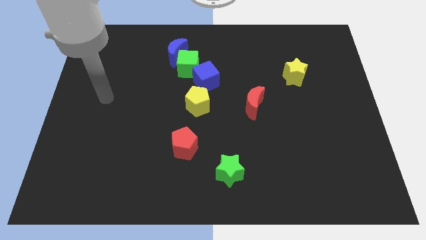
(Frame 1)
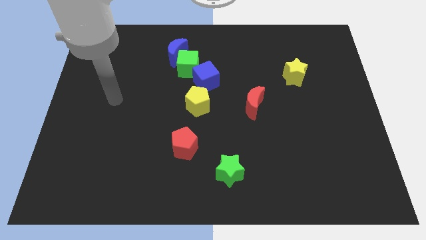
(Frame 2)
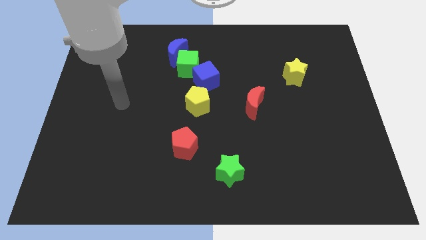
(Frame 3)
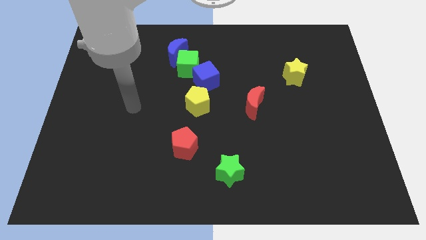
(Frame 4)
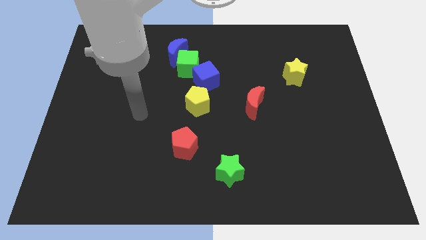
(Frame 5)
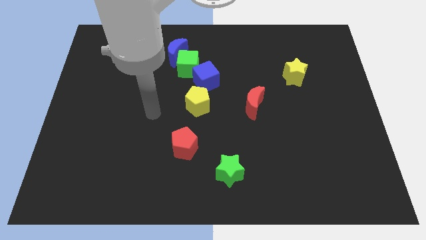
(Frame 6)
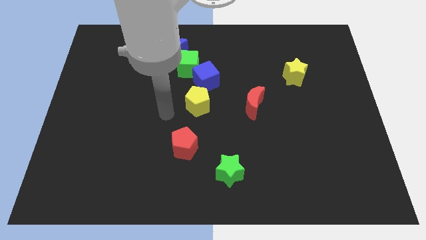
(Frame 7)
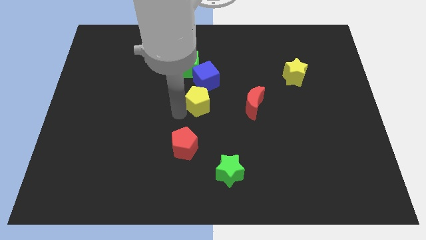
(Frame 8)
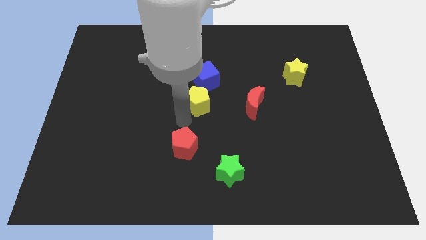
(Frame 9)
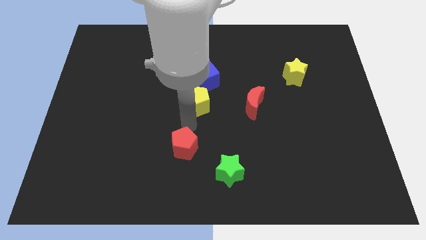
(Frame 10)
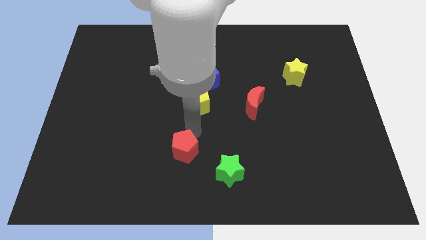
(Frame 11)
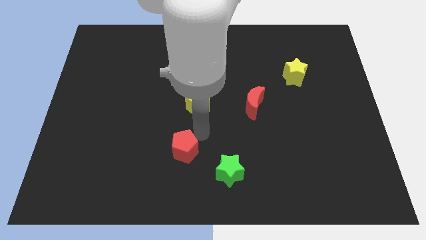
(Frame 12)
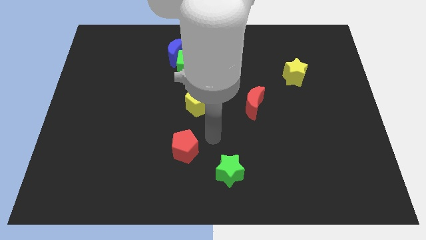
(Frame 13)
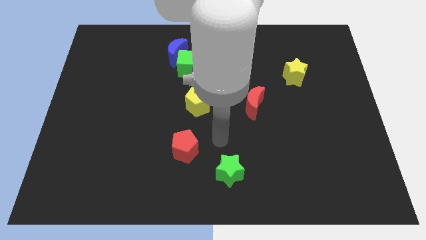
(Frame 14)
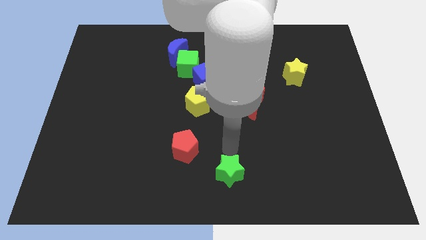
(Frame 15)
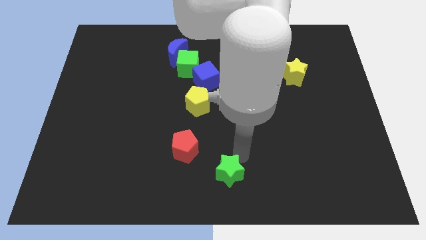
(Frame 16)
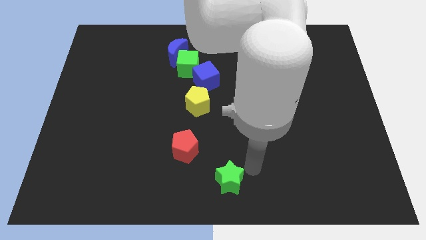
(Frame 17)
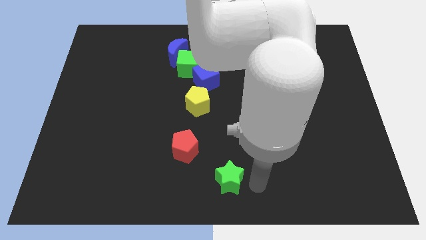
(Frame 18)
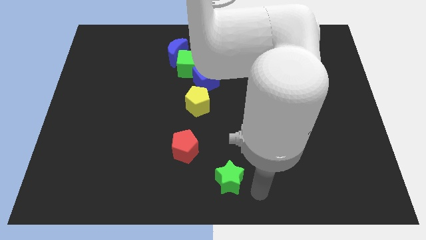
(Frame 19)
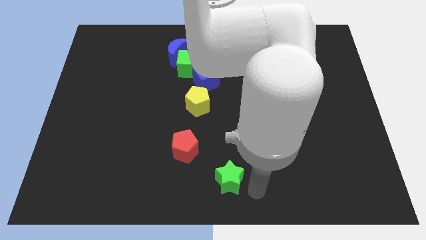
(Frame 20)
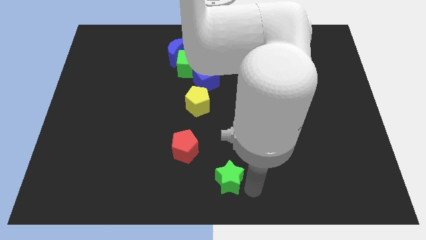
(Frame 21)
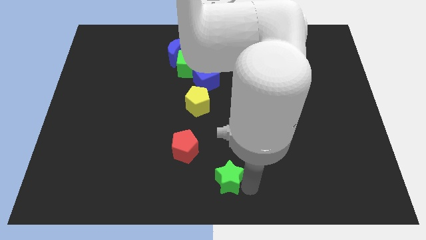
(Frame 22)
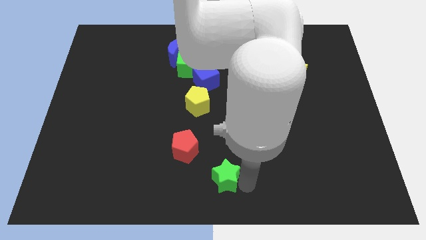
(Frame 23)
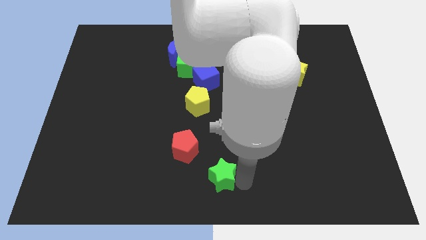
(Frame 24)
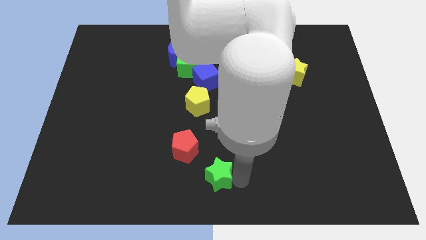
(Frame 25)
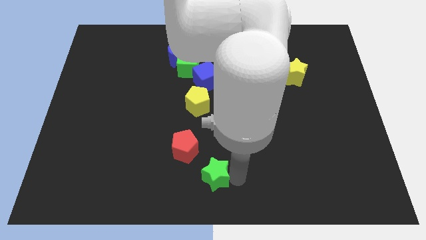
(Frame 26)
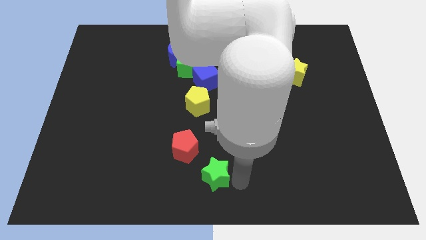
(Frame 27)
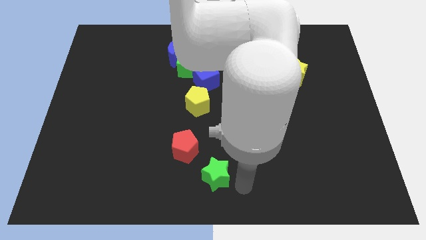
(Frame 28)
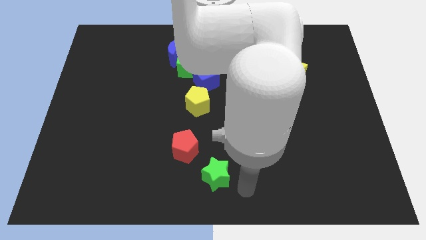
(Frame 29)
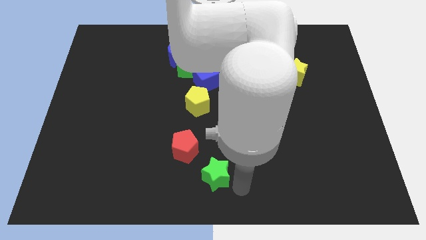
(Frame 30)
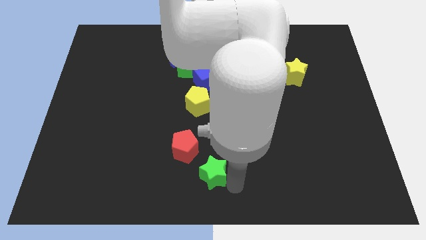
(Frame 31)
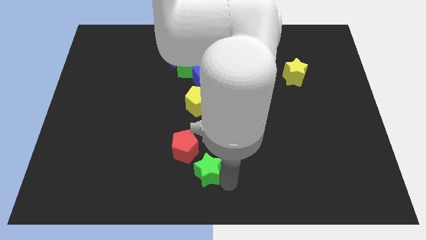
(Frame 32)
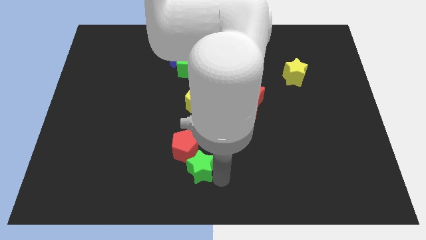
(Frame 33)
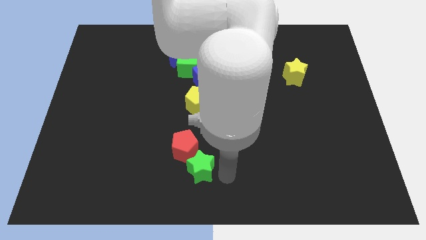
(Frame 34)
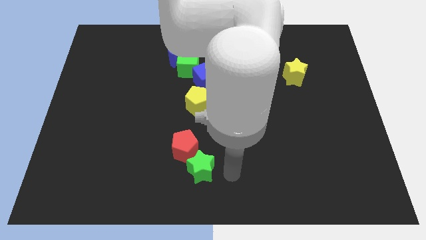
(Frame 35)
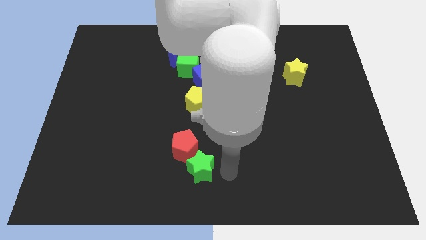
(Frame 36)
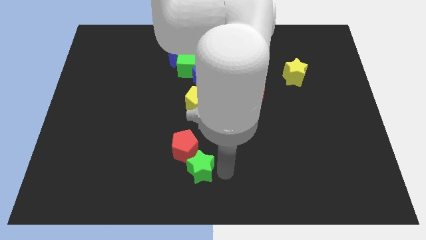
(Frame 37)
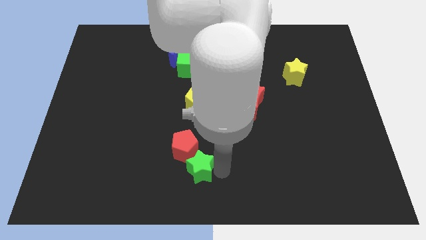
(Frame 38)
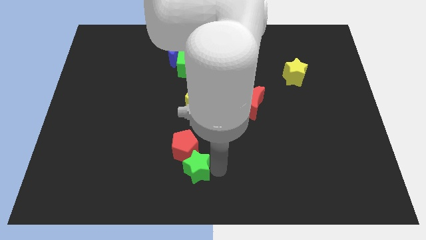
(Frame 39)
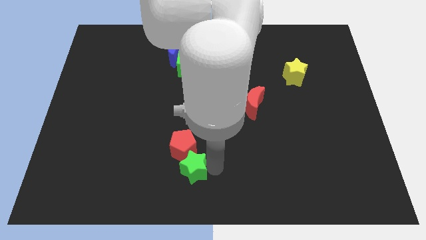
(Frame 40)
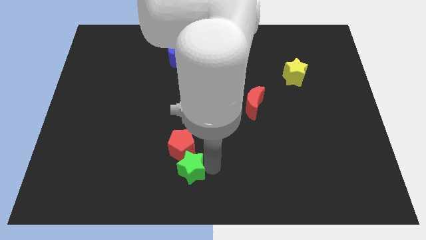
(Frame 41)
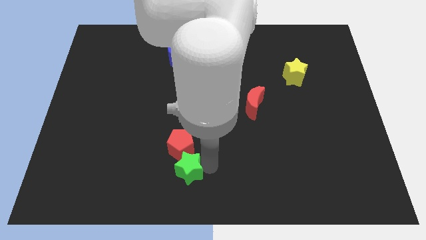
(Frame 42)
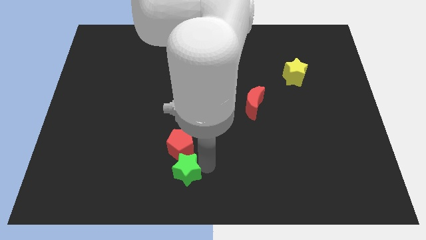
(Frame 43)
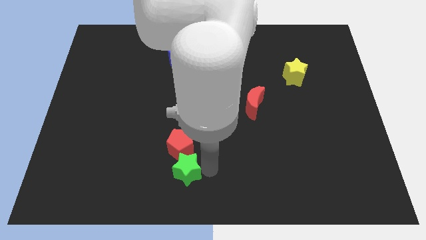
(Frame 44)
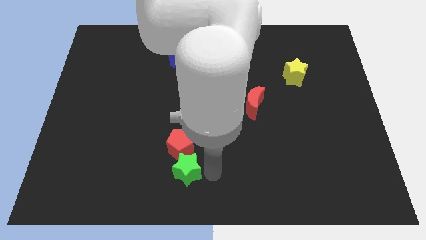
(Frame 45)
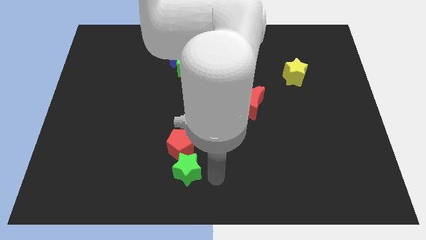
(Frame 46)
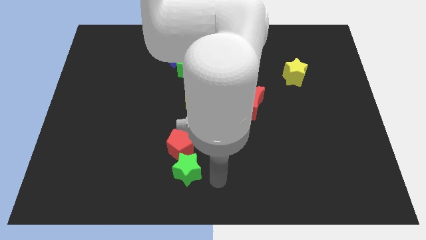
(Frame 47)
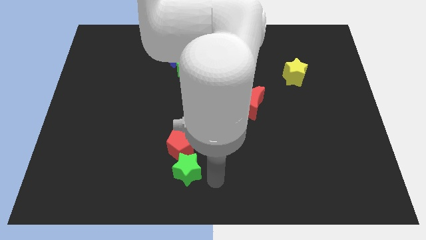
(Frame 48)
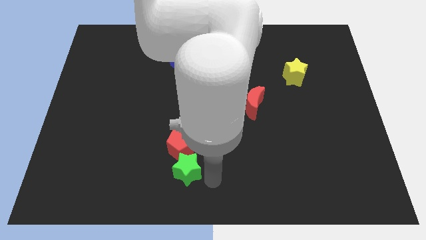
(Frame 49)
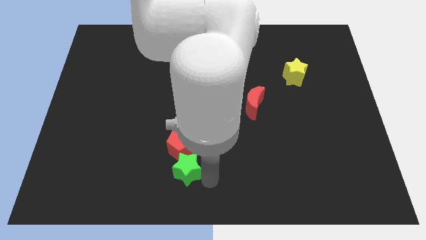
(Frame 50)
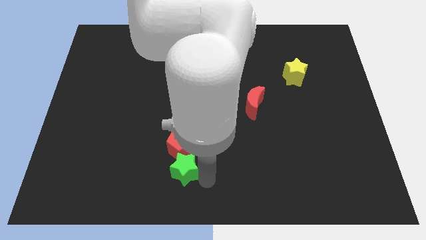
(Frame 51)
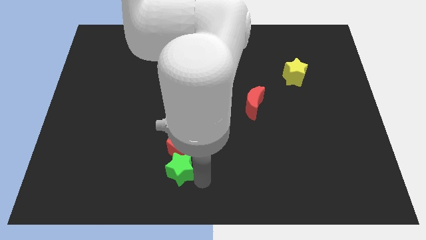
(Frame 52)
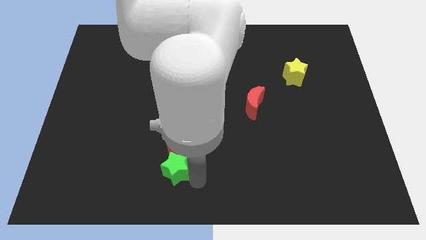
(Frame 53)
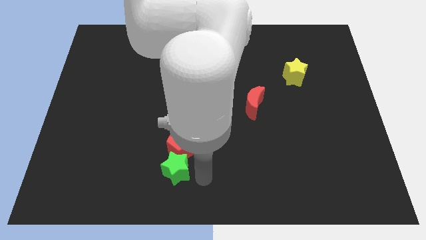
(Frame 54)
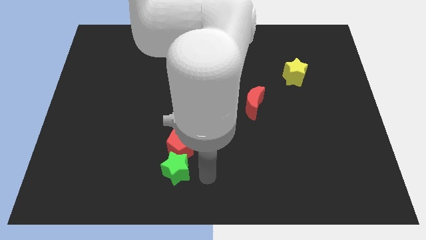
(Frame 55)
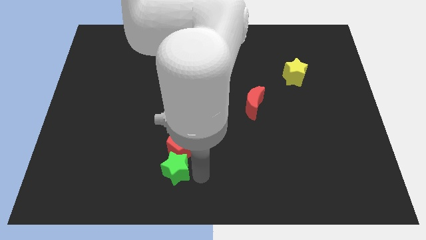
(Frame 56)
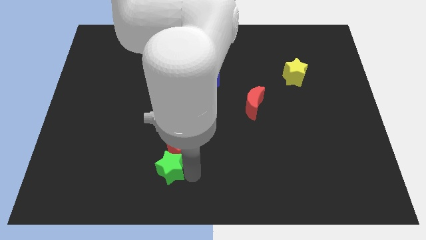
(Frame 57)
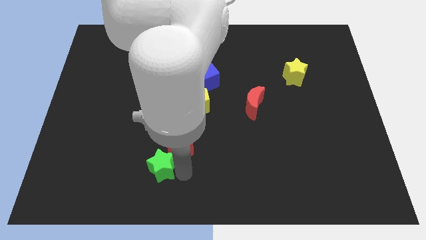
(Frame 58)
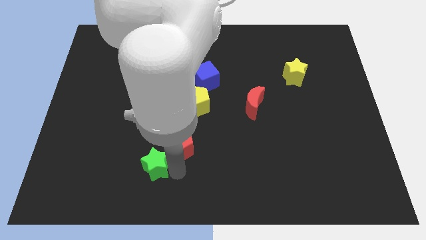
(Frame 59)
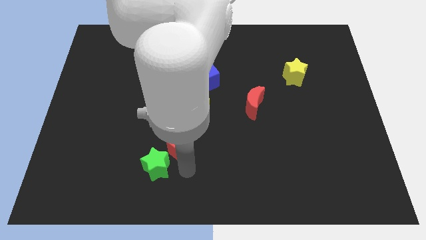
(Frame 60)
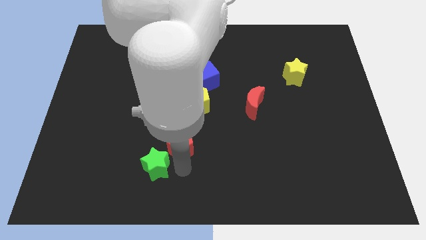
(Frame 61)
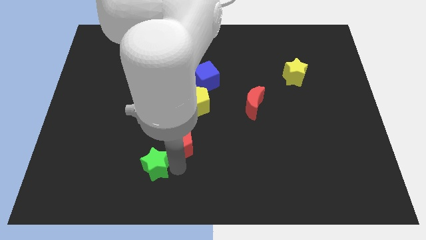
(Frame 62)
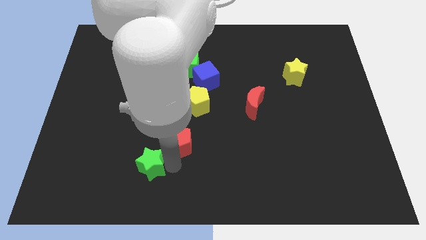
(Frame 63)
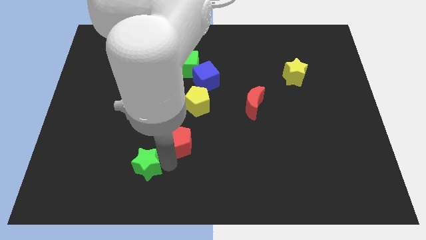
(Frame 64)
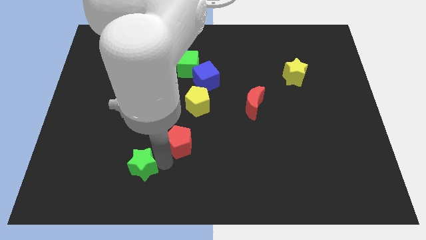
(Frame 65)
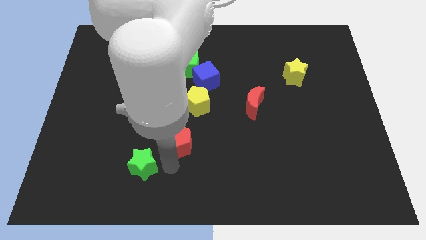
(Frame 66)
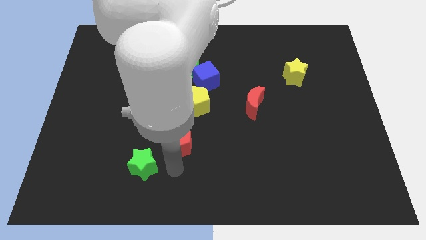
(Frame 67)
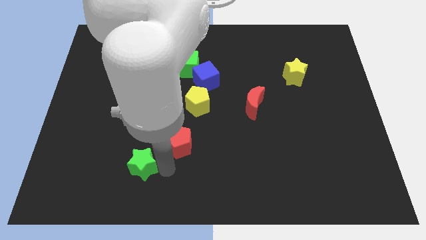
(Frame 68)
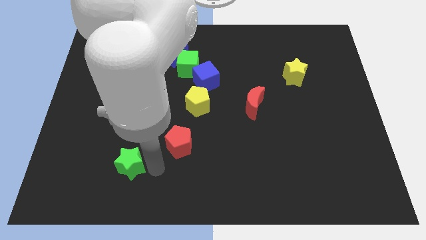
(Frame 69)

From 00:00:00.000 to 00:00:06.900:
move the green star left

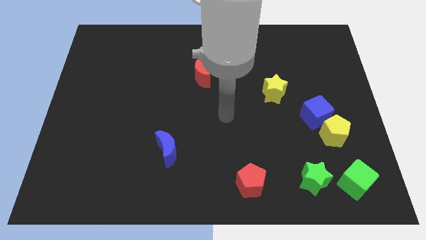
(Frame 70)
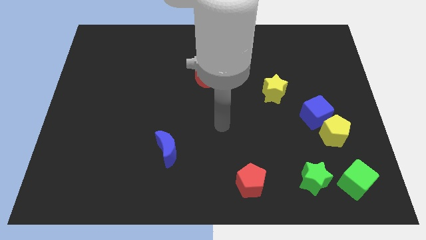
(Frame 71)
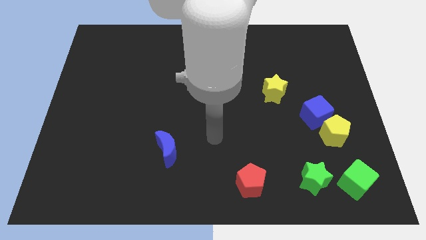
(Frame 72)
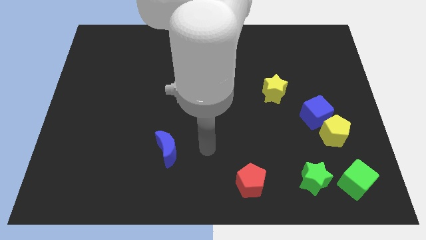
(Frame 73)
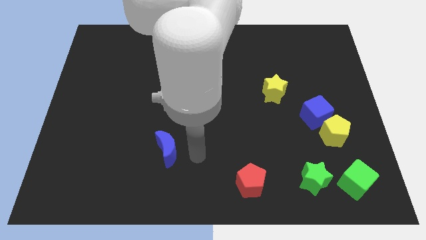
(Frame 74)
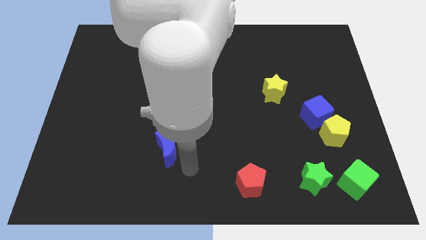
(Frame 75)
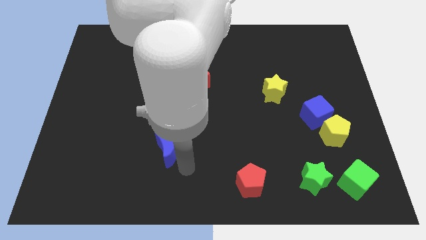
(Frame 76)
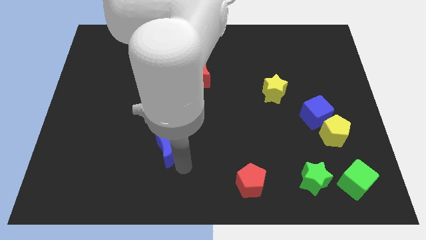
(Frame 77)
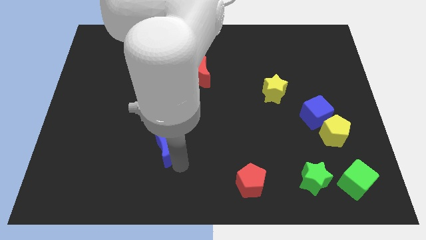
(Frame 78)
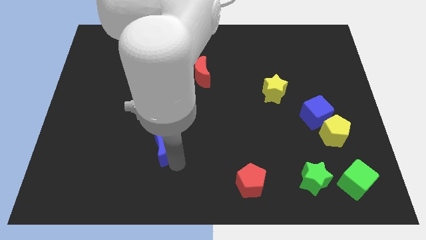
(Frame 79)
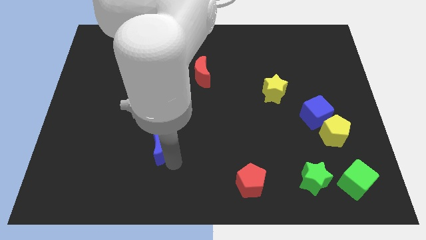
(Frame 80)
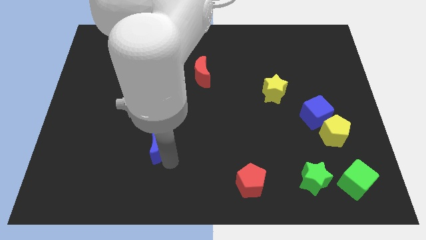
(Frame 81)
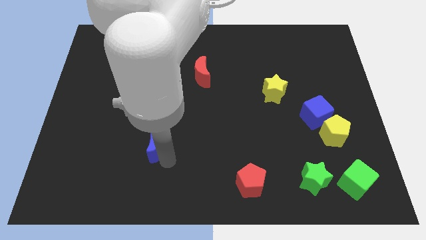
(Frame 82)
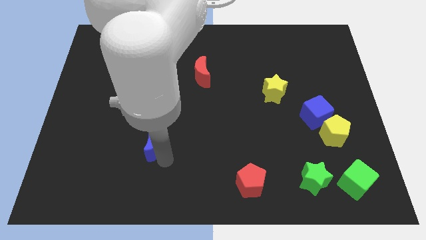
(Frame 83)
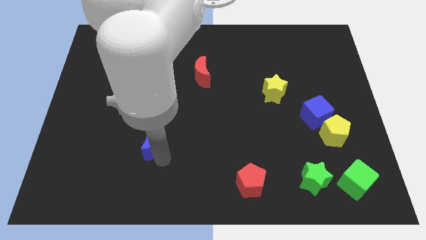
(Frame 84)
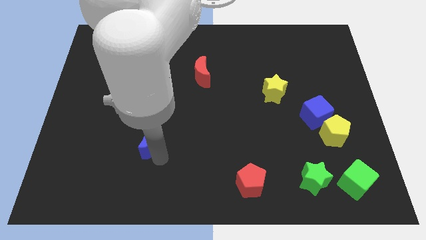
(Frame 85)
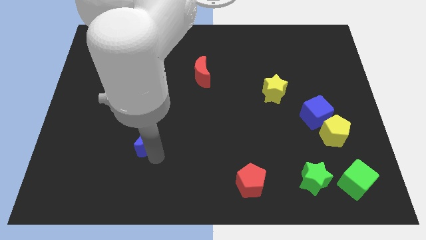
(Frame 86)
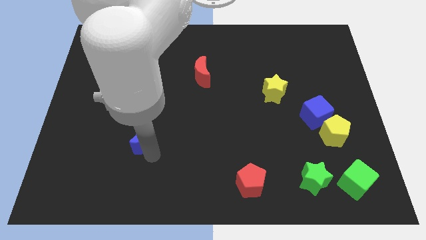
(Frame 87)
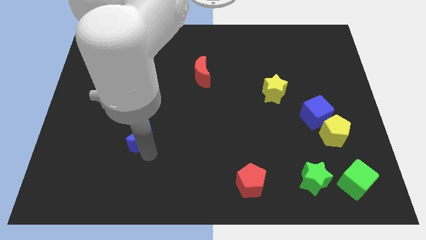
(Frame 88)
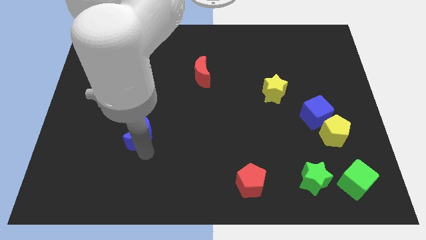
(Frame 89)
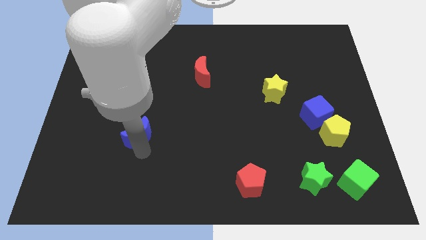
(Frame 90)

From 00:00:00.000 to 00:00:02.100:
slightly move the blue moon upwards and left diagonally
